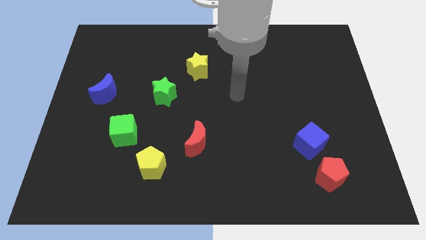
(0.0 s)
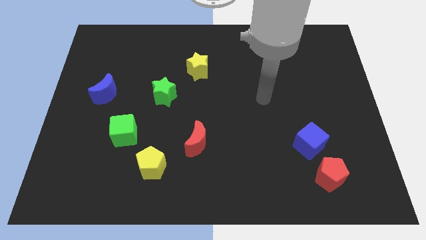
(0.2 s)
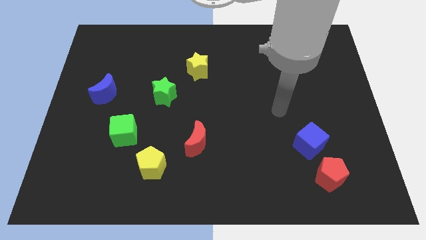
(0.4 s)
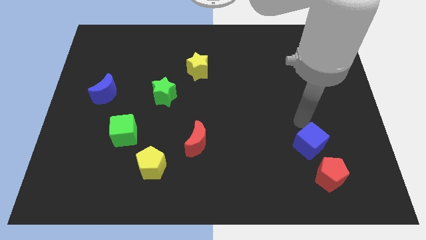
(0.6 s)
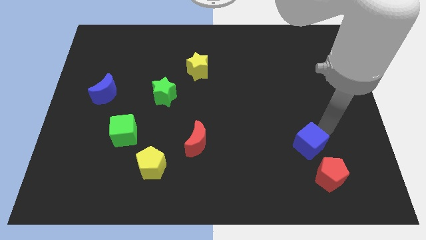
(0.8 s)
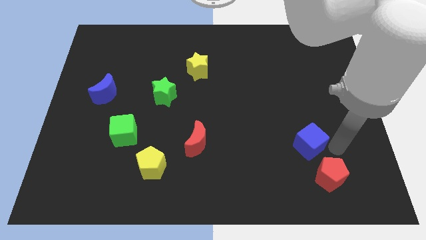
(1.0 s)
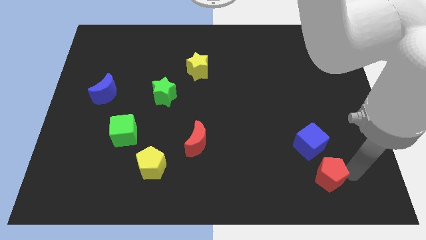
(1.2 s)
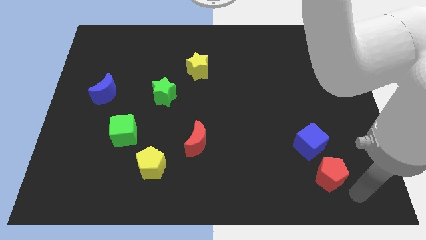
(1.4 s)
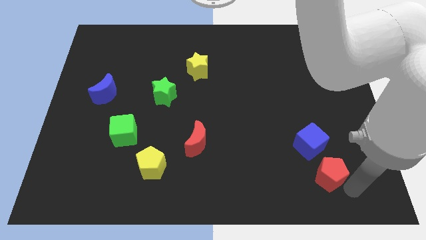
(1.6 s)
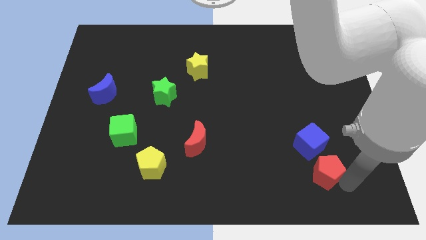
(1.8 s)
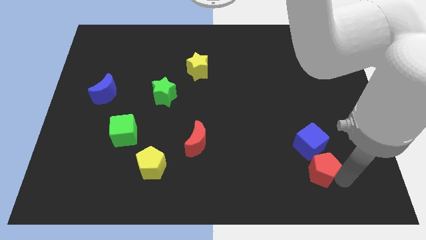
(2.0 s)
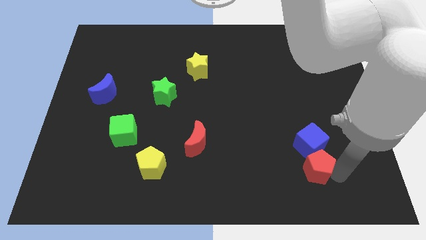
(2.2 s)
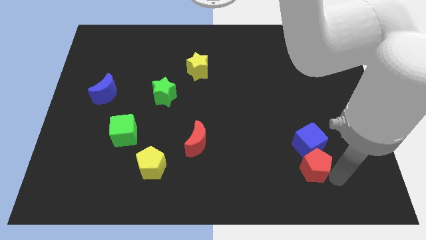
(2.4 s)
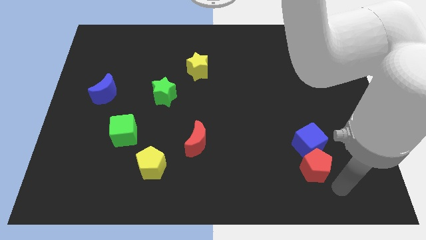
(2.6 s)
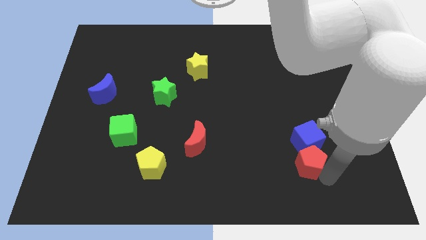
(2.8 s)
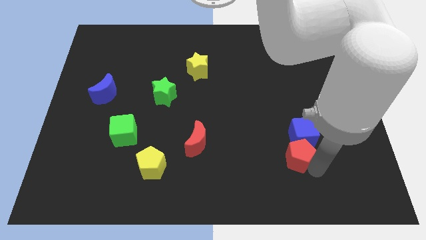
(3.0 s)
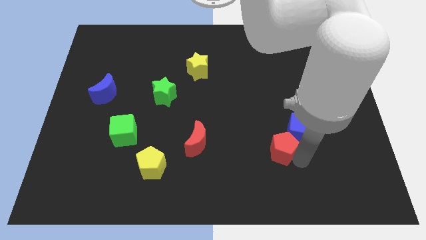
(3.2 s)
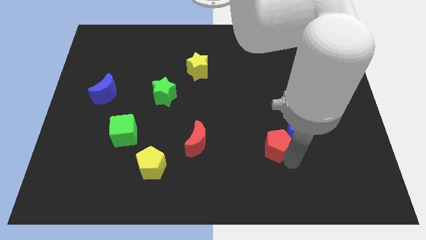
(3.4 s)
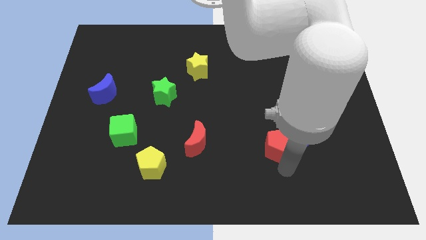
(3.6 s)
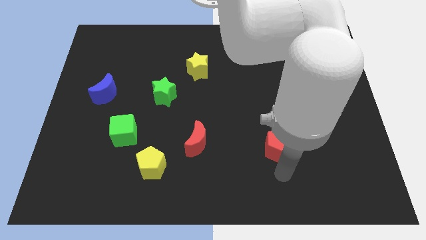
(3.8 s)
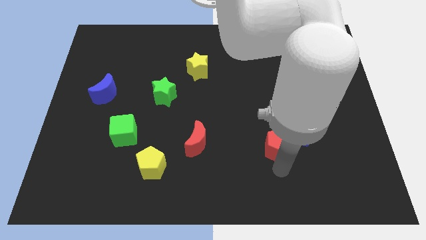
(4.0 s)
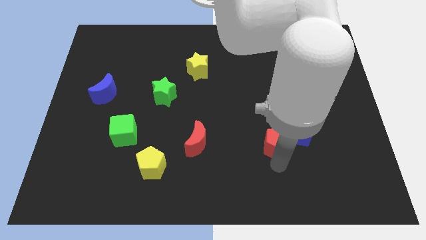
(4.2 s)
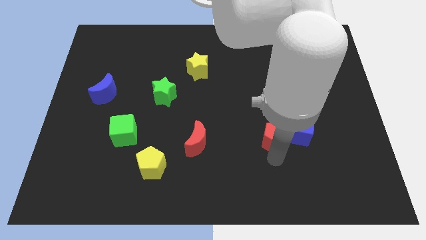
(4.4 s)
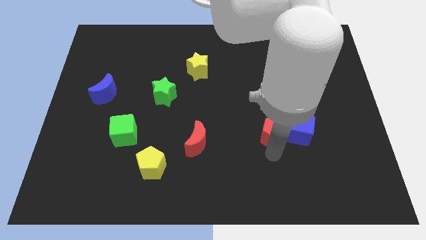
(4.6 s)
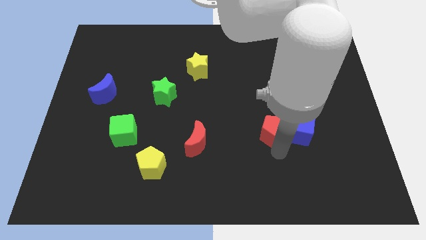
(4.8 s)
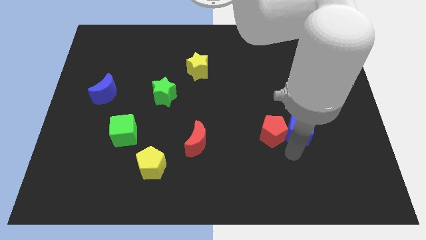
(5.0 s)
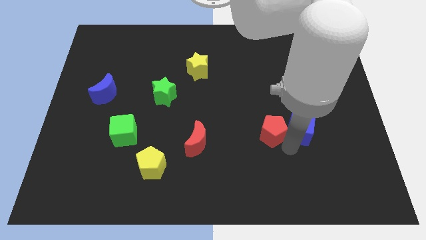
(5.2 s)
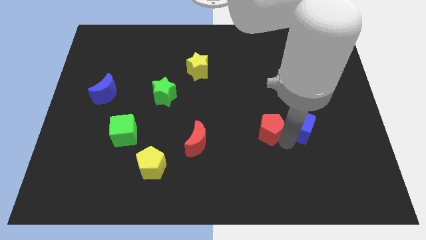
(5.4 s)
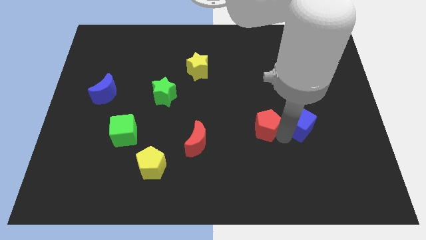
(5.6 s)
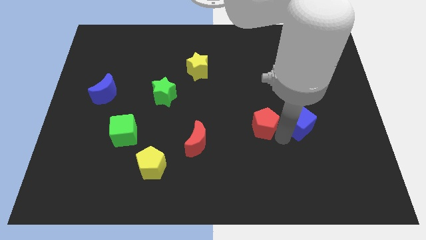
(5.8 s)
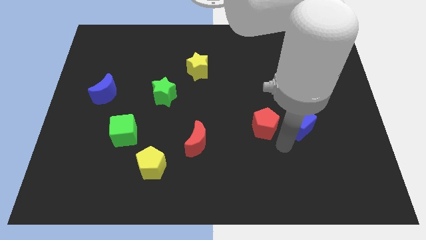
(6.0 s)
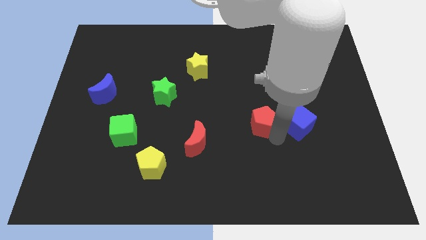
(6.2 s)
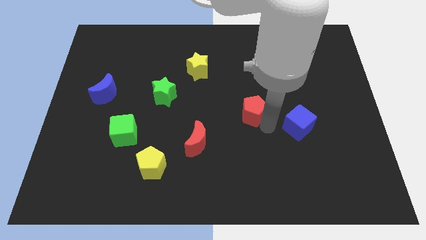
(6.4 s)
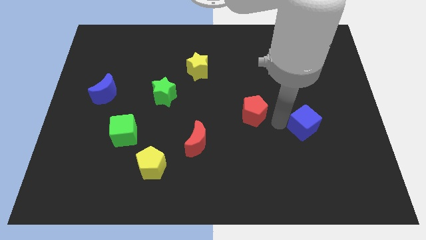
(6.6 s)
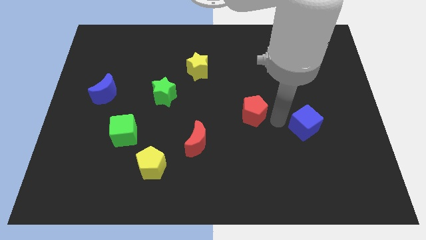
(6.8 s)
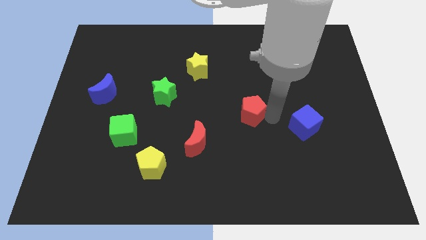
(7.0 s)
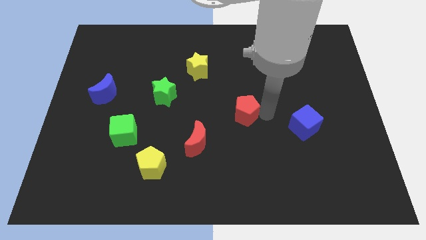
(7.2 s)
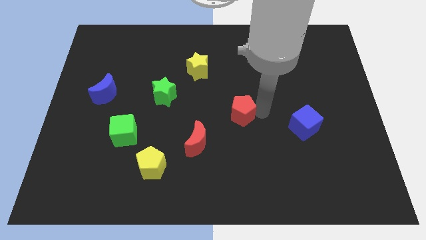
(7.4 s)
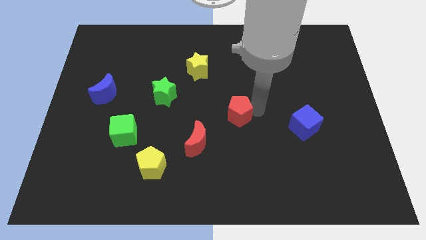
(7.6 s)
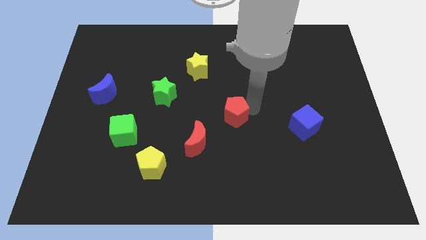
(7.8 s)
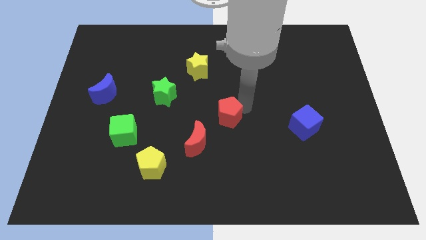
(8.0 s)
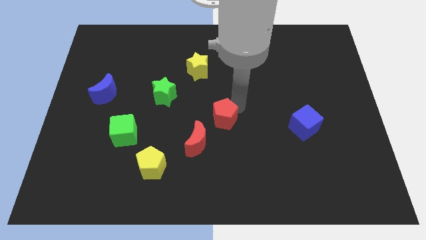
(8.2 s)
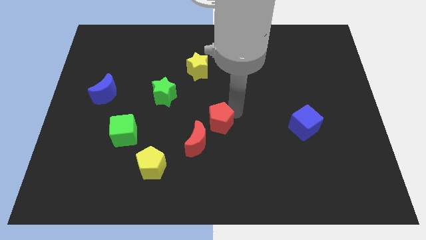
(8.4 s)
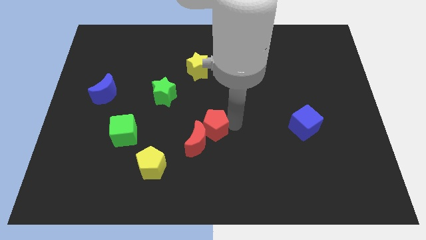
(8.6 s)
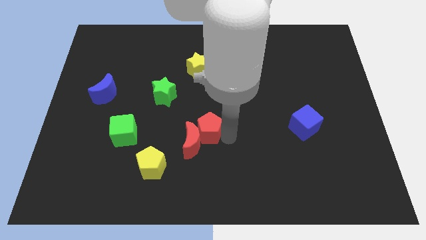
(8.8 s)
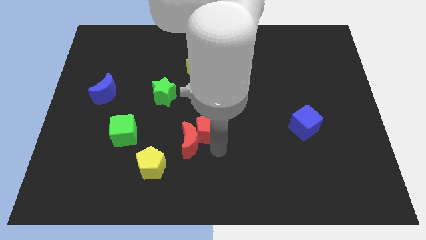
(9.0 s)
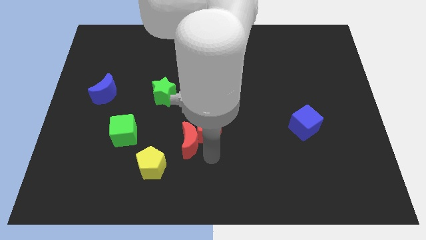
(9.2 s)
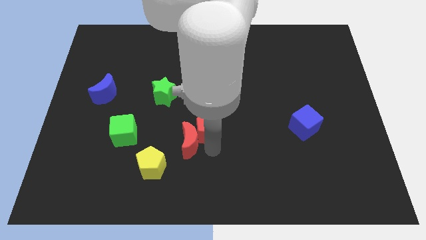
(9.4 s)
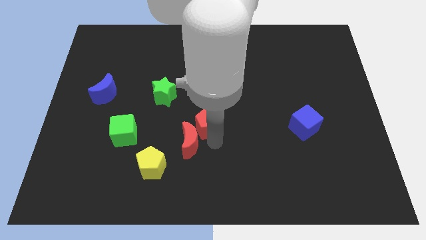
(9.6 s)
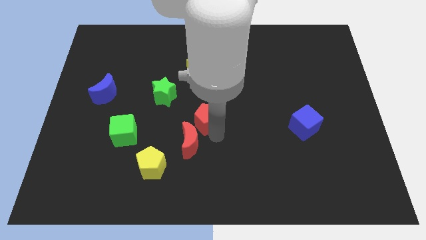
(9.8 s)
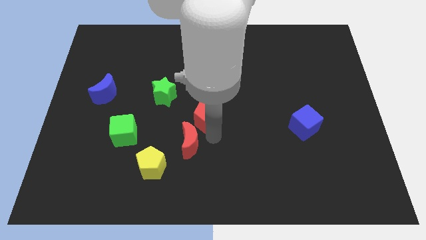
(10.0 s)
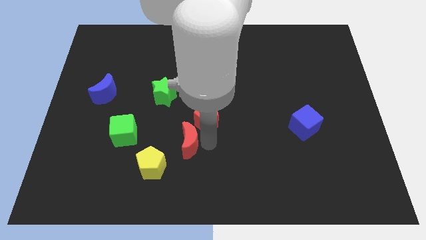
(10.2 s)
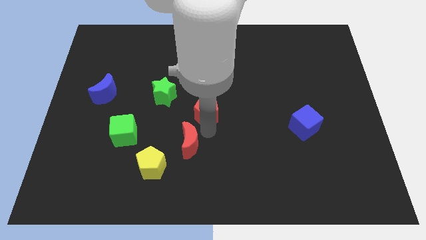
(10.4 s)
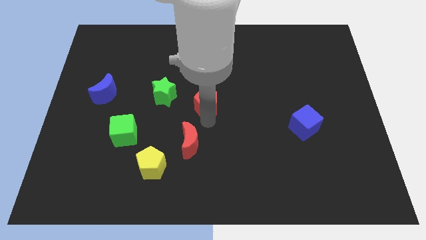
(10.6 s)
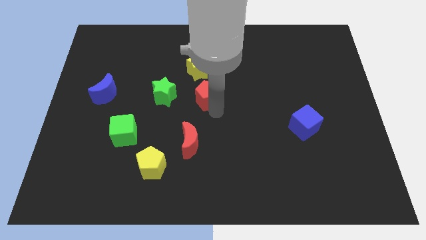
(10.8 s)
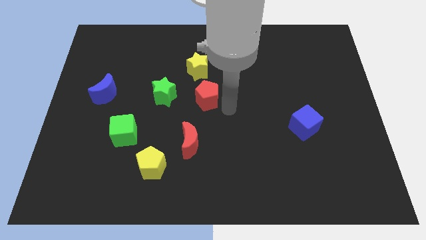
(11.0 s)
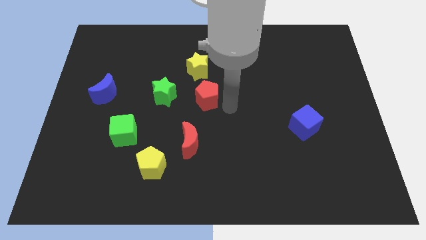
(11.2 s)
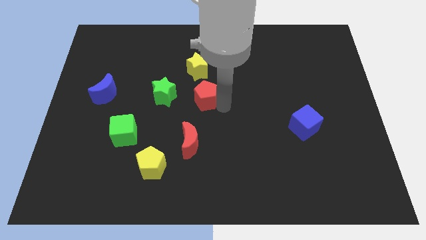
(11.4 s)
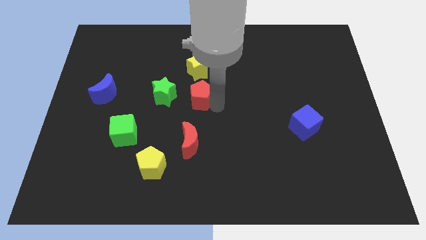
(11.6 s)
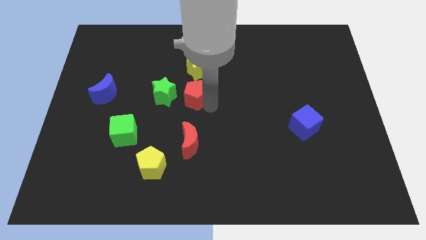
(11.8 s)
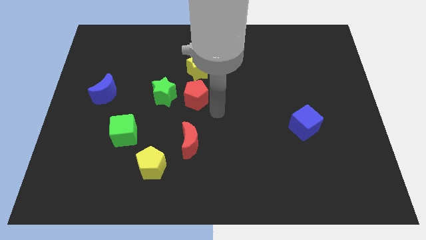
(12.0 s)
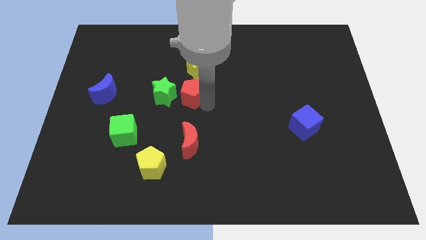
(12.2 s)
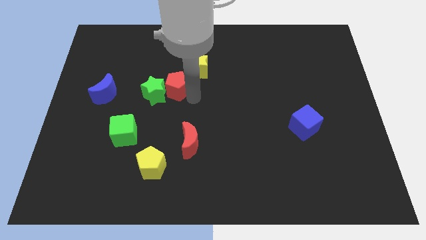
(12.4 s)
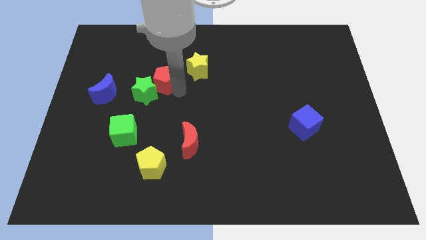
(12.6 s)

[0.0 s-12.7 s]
put the red pentagon to the left side of the yellow star

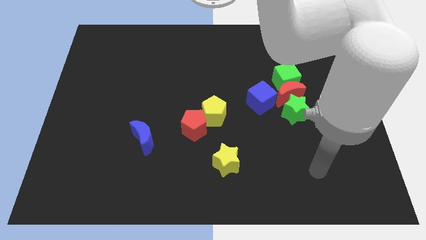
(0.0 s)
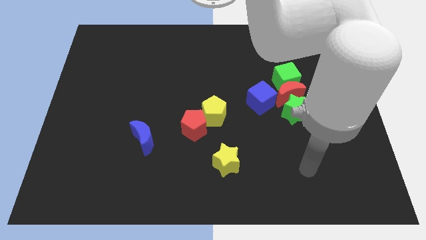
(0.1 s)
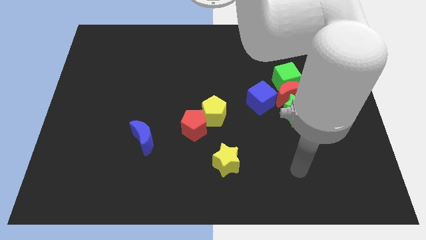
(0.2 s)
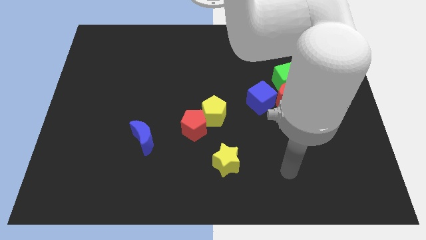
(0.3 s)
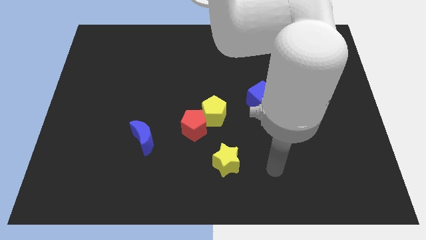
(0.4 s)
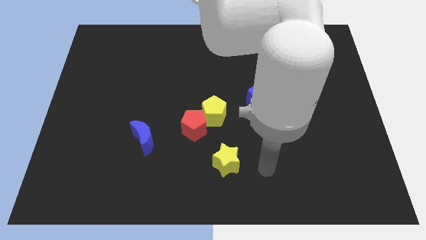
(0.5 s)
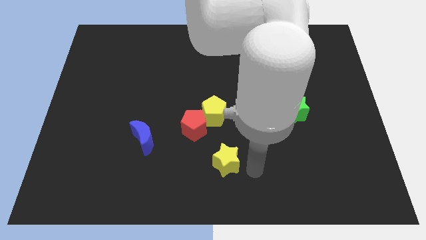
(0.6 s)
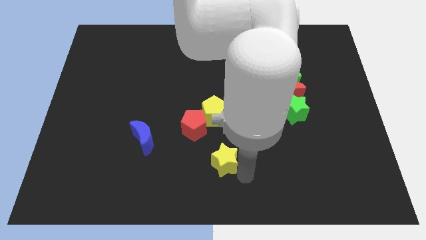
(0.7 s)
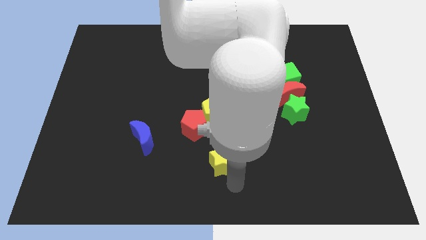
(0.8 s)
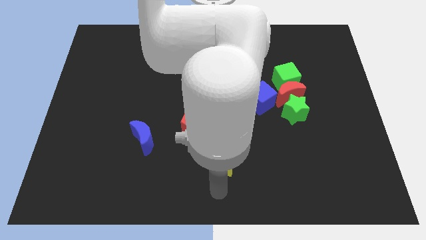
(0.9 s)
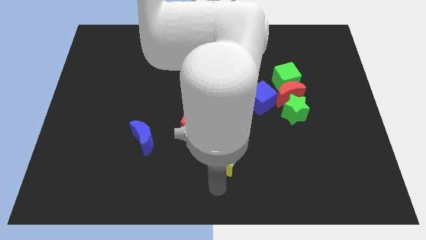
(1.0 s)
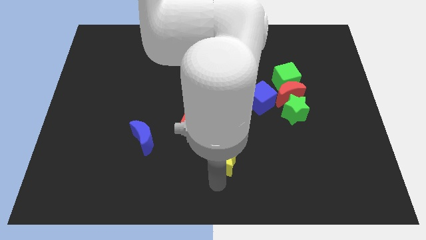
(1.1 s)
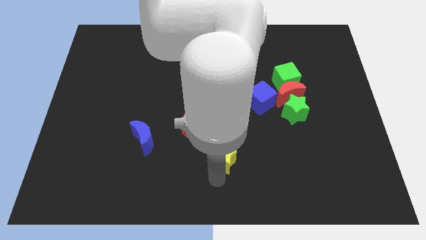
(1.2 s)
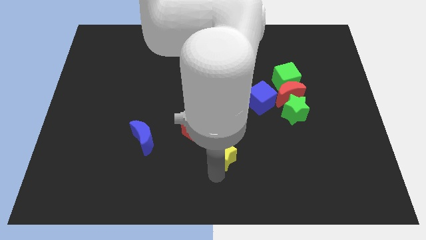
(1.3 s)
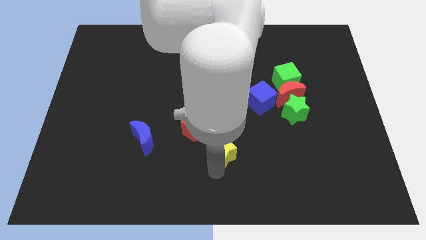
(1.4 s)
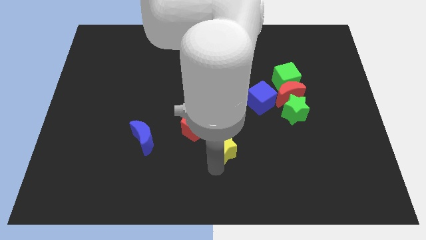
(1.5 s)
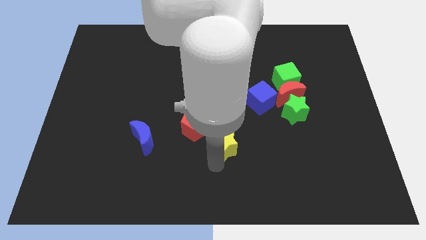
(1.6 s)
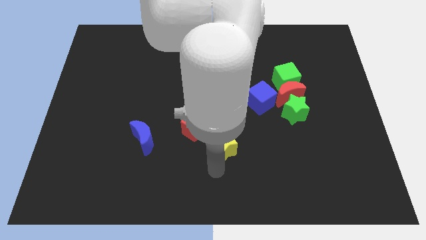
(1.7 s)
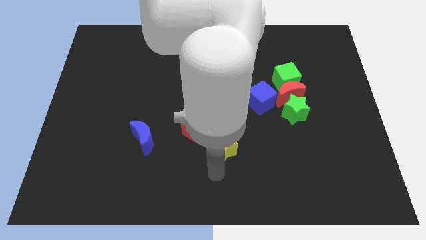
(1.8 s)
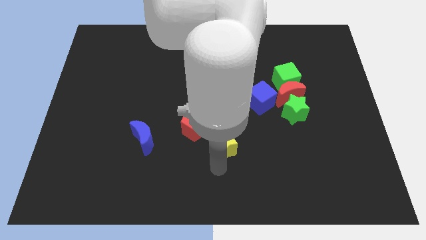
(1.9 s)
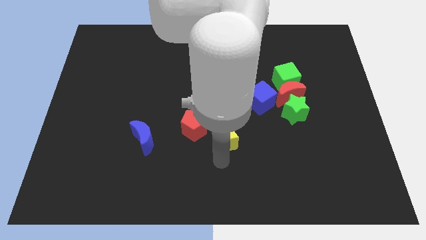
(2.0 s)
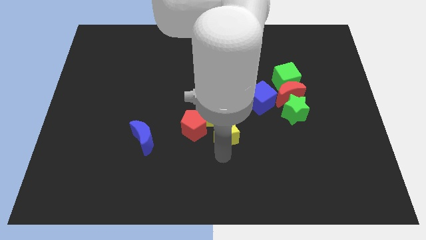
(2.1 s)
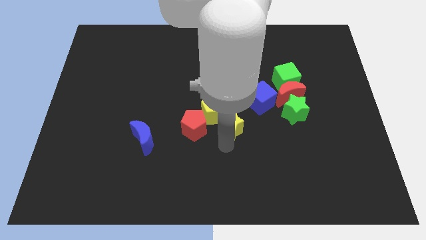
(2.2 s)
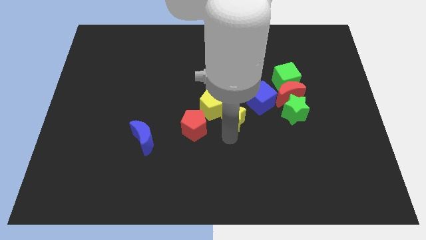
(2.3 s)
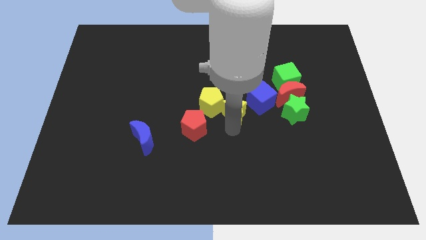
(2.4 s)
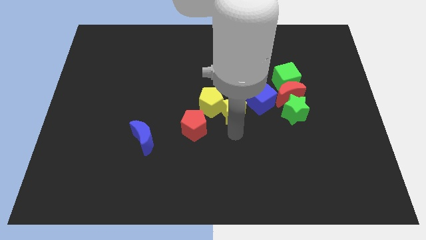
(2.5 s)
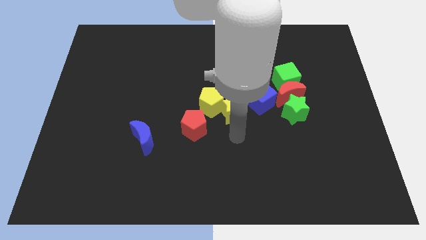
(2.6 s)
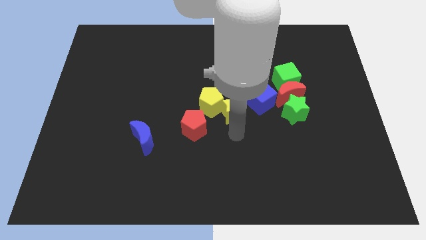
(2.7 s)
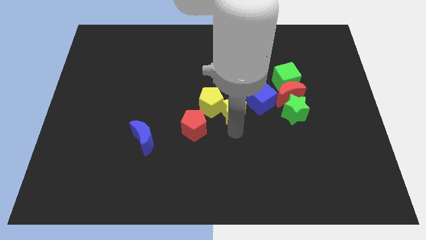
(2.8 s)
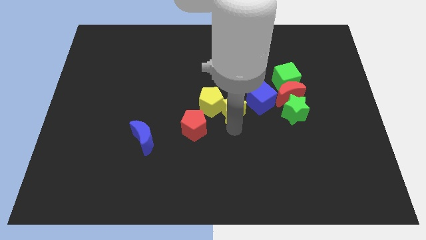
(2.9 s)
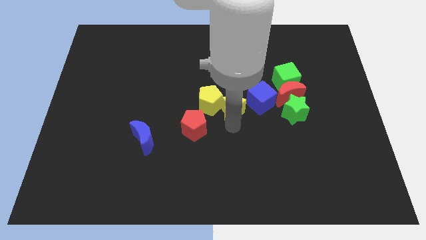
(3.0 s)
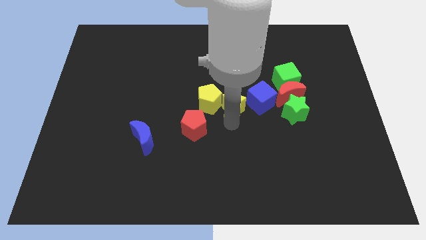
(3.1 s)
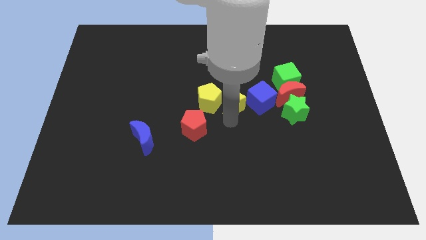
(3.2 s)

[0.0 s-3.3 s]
slide the yellow star to the top right side of the yellow pentagon
